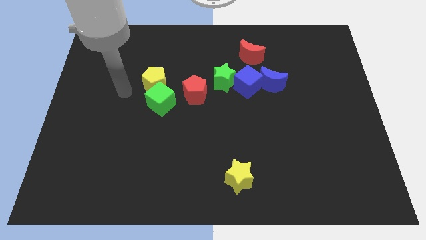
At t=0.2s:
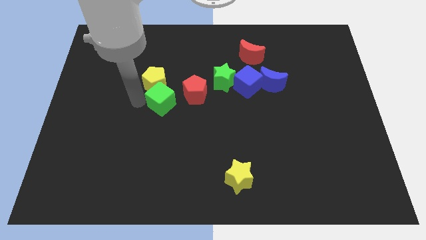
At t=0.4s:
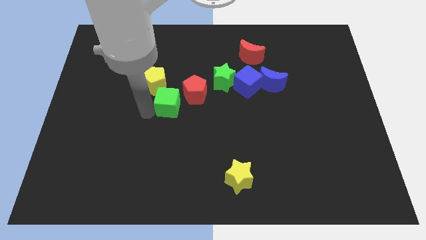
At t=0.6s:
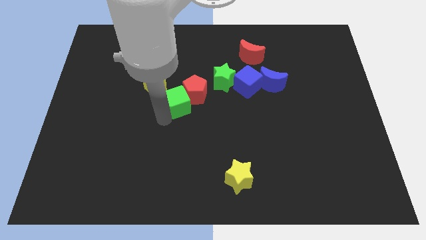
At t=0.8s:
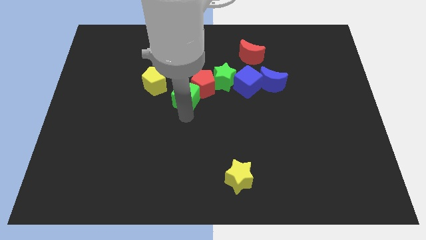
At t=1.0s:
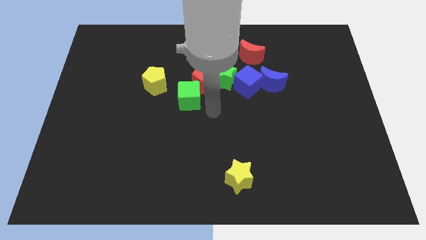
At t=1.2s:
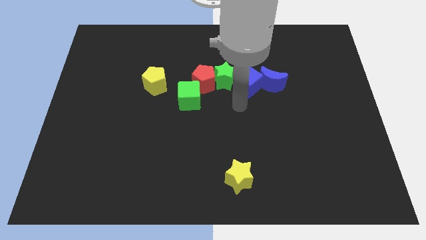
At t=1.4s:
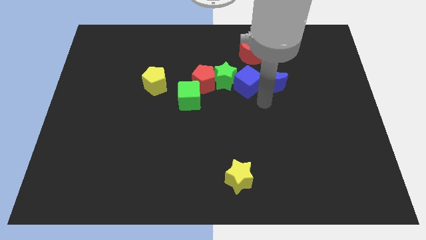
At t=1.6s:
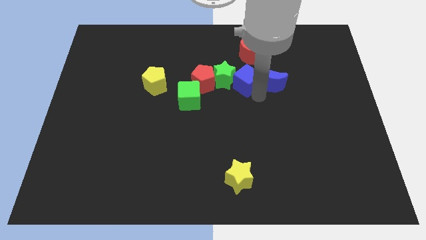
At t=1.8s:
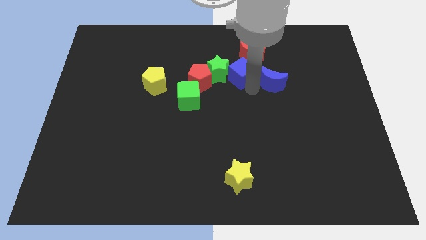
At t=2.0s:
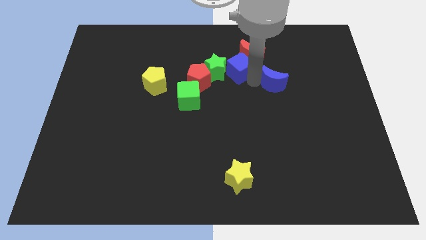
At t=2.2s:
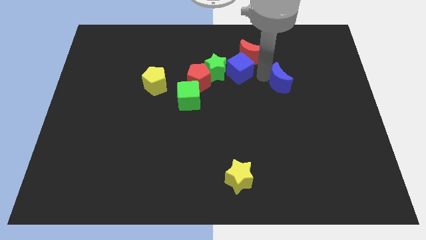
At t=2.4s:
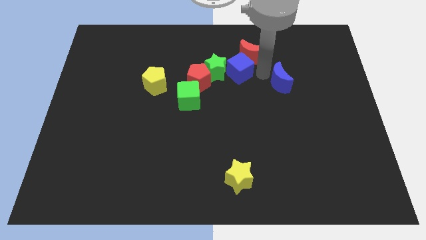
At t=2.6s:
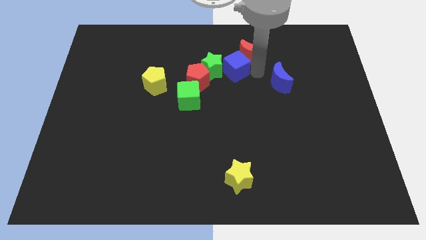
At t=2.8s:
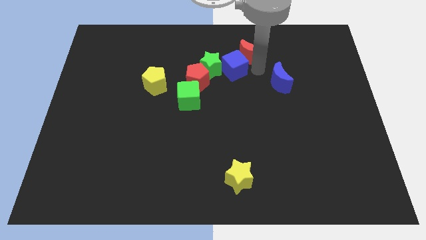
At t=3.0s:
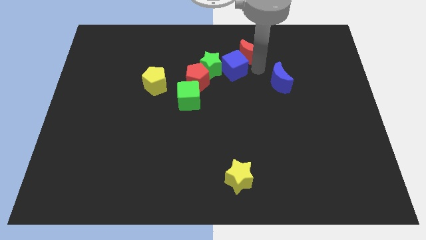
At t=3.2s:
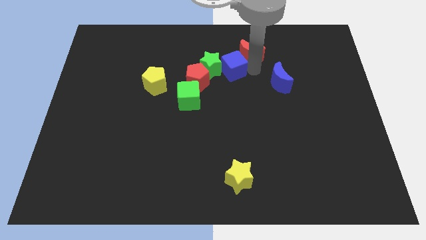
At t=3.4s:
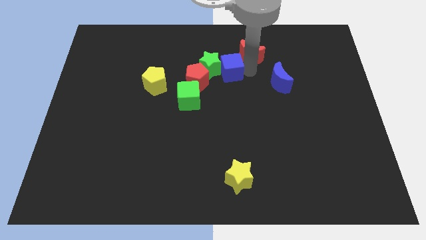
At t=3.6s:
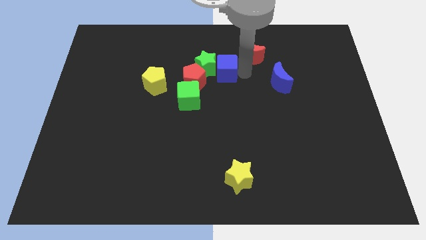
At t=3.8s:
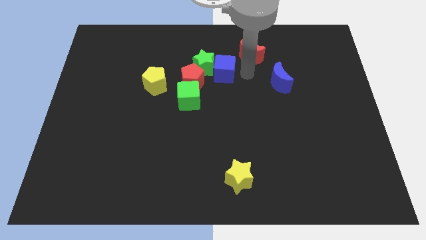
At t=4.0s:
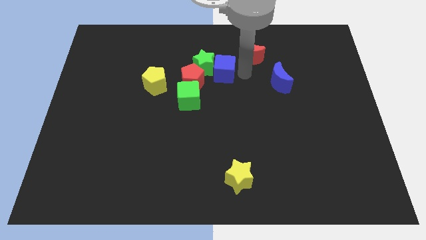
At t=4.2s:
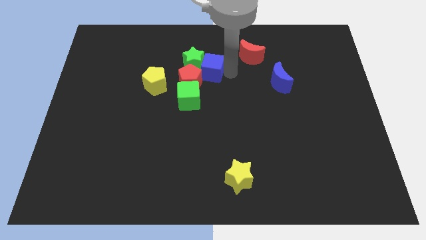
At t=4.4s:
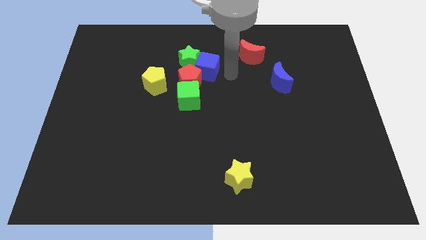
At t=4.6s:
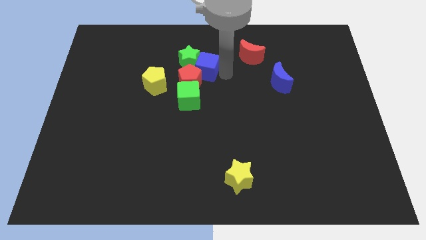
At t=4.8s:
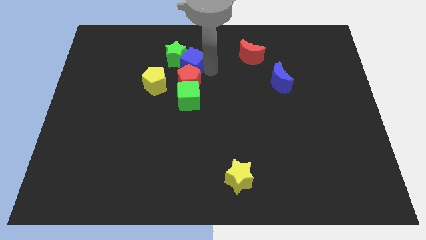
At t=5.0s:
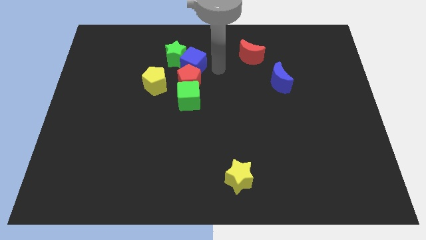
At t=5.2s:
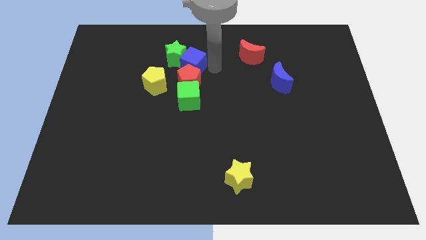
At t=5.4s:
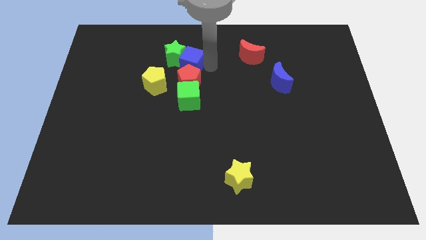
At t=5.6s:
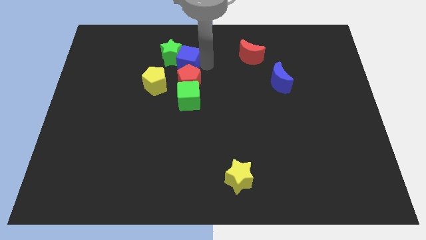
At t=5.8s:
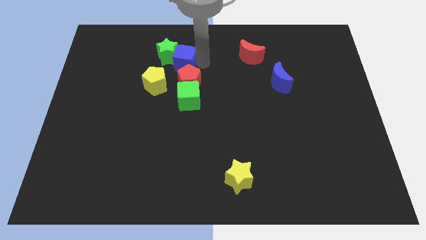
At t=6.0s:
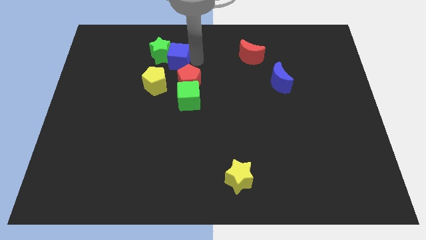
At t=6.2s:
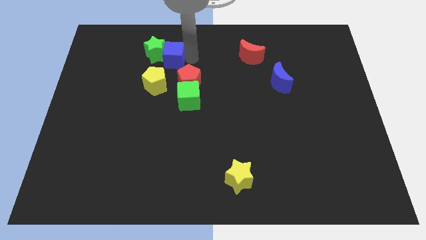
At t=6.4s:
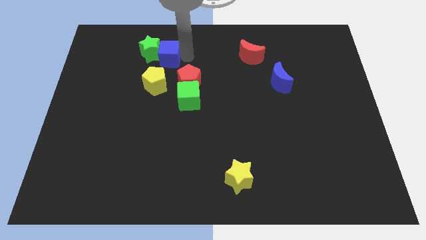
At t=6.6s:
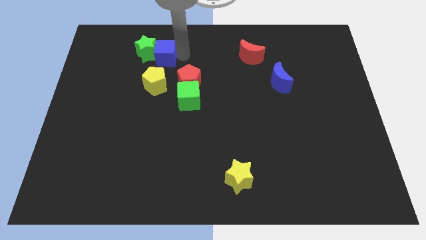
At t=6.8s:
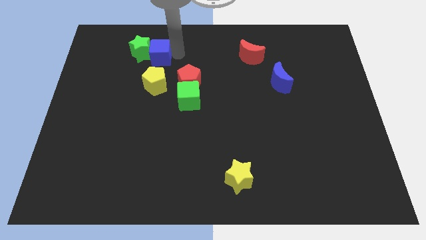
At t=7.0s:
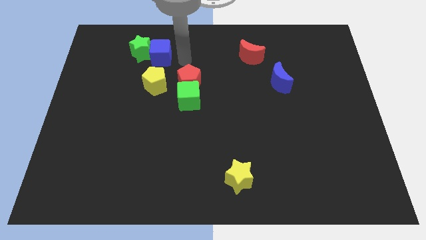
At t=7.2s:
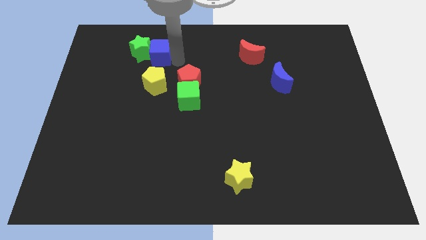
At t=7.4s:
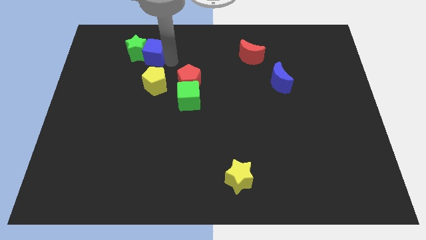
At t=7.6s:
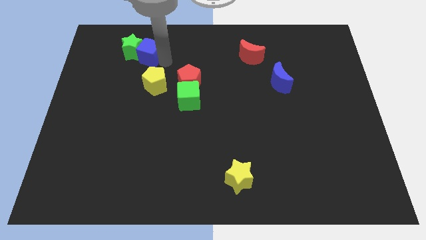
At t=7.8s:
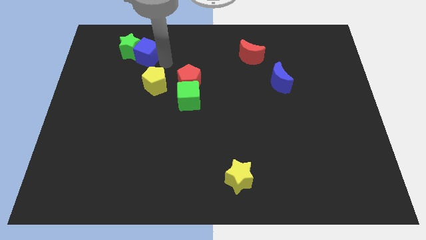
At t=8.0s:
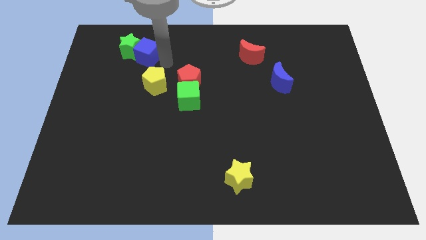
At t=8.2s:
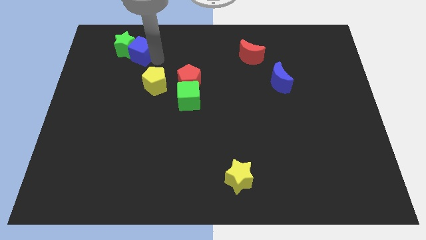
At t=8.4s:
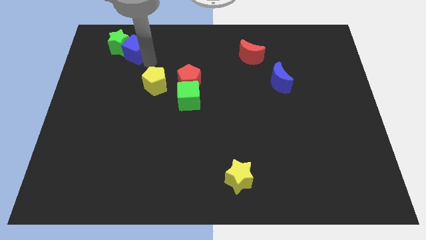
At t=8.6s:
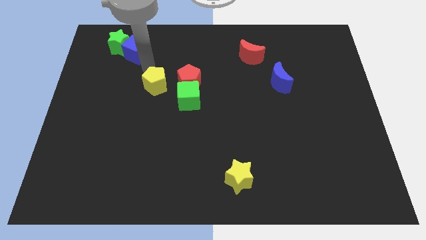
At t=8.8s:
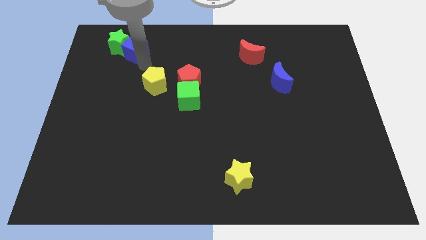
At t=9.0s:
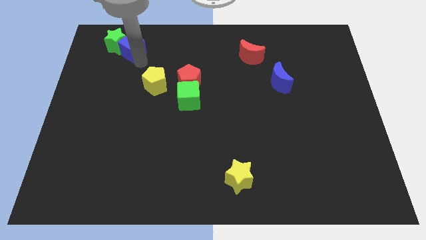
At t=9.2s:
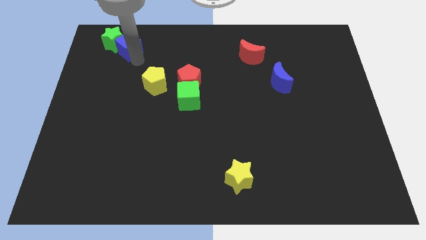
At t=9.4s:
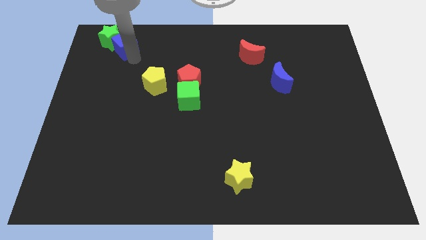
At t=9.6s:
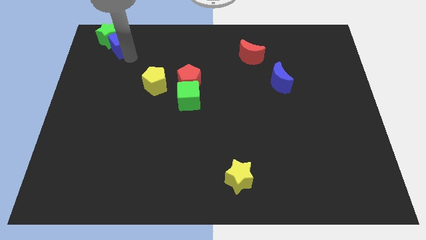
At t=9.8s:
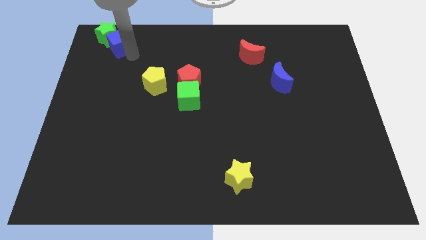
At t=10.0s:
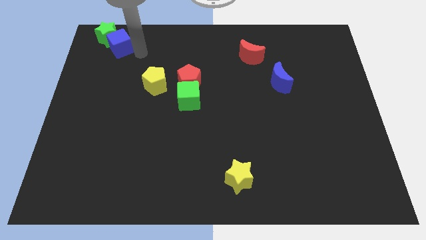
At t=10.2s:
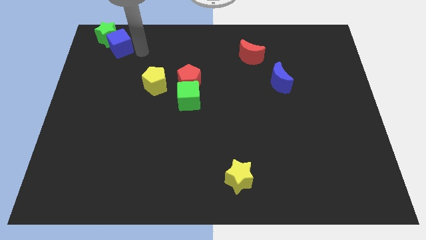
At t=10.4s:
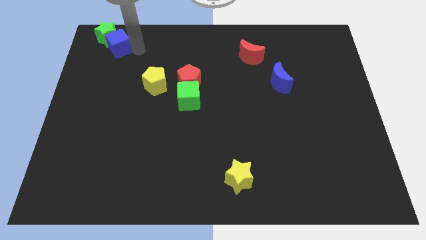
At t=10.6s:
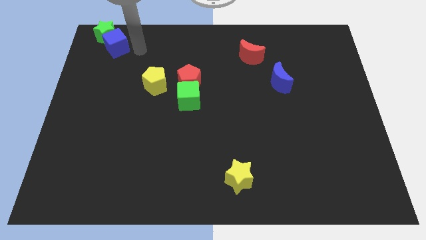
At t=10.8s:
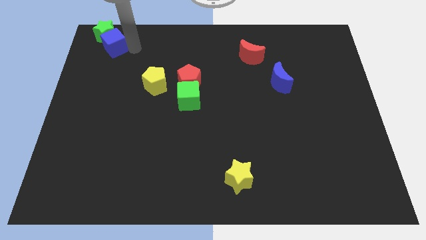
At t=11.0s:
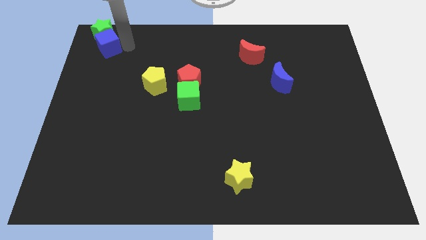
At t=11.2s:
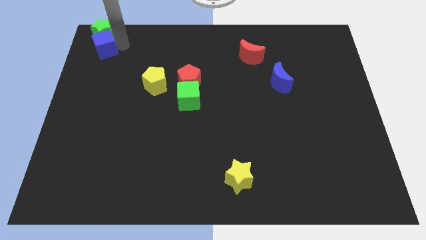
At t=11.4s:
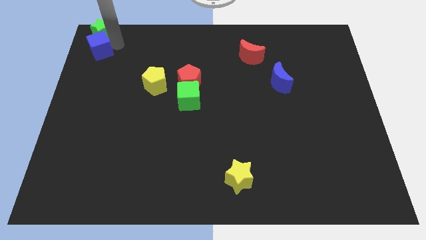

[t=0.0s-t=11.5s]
push the blue cube to the upper left corner

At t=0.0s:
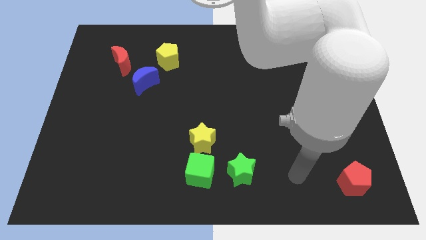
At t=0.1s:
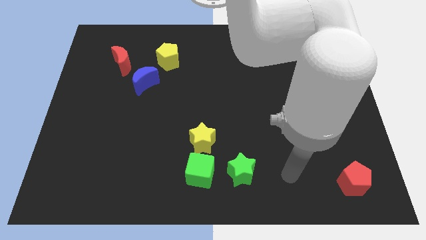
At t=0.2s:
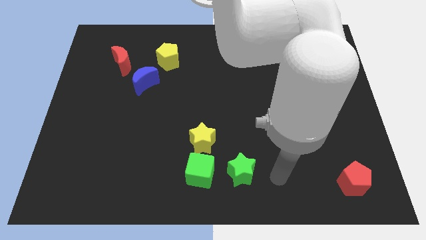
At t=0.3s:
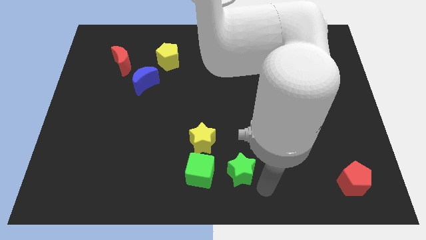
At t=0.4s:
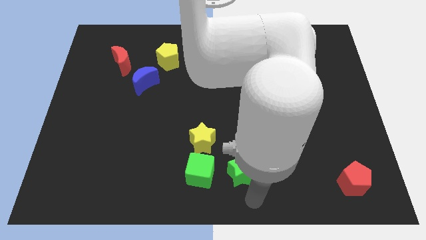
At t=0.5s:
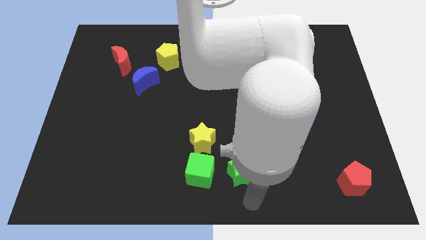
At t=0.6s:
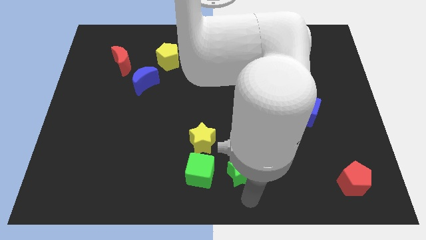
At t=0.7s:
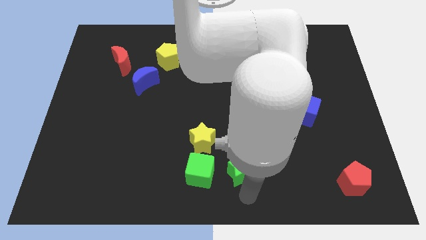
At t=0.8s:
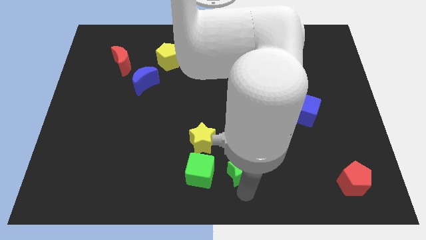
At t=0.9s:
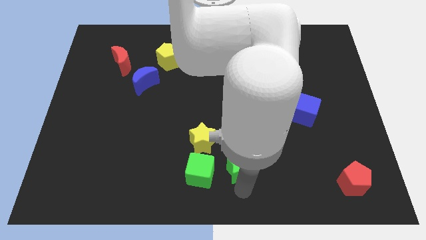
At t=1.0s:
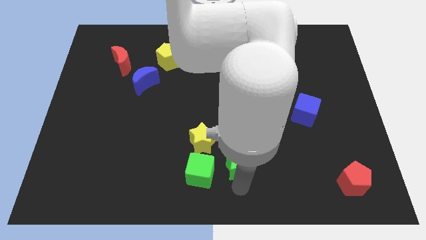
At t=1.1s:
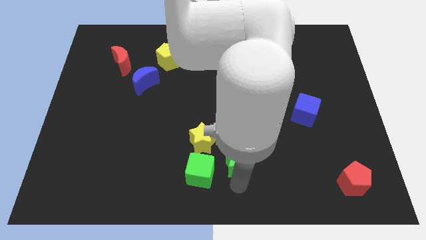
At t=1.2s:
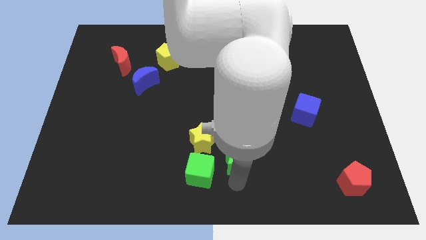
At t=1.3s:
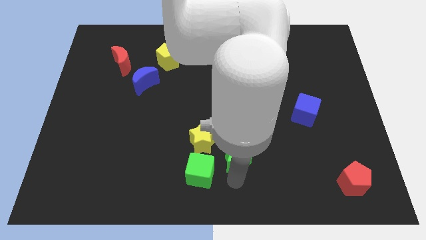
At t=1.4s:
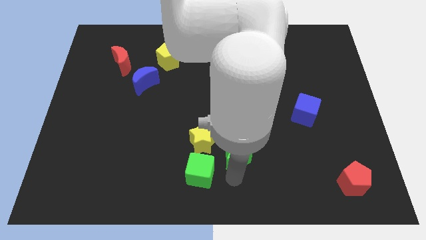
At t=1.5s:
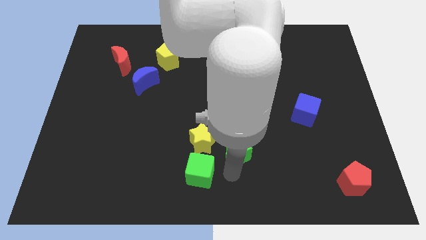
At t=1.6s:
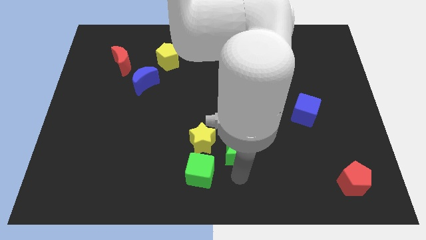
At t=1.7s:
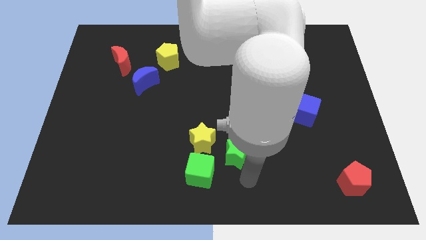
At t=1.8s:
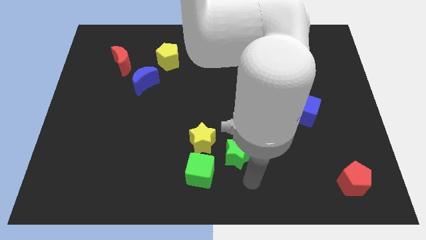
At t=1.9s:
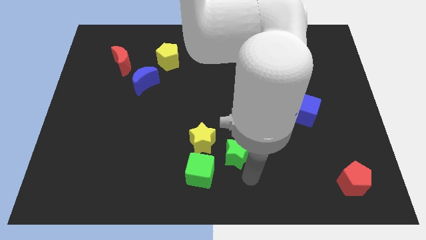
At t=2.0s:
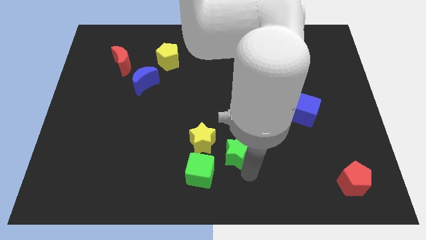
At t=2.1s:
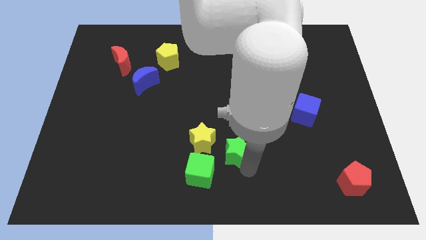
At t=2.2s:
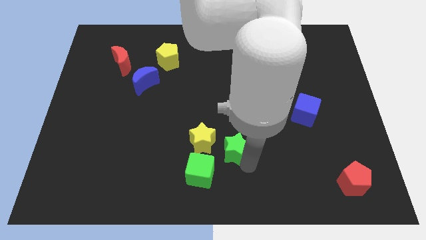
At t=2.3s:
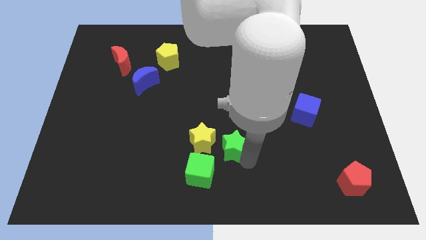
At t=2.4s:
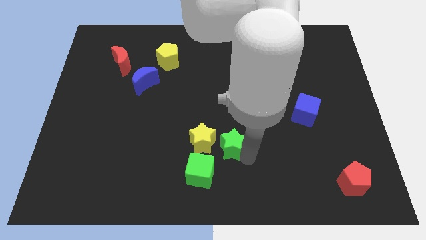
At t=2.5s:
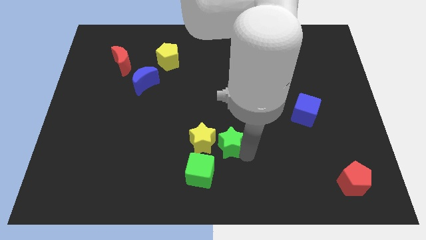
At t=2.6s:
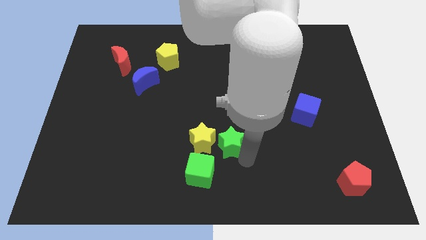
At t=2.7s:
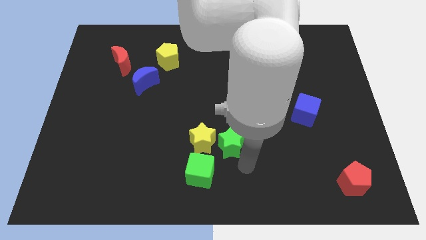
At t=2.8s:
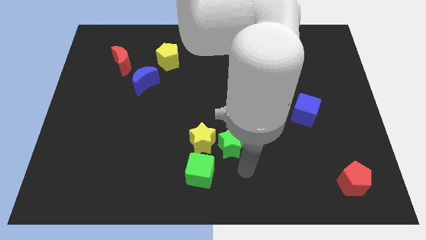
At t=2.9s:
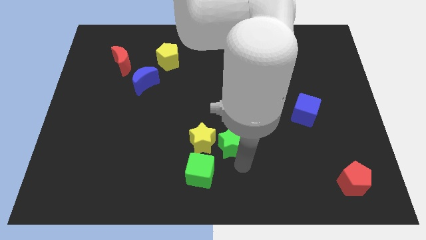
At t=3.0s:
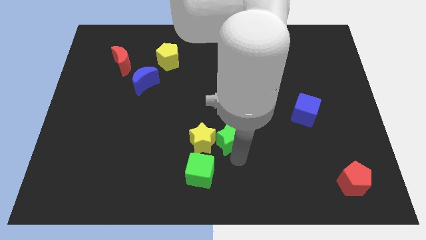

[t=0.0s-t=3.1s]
put the green star to the middle
